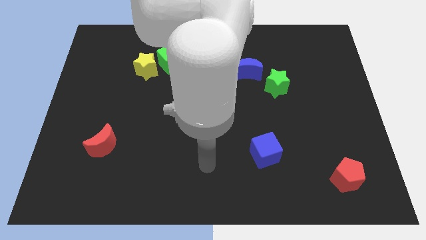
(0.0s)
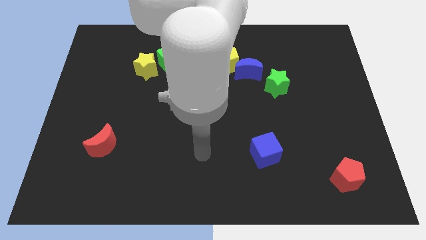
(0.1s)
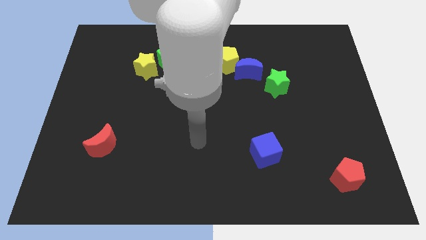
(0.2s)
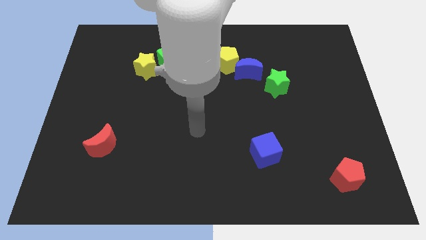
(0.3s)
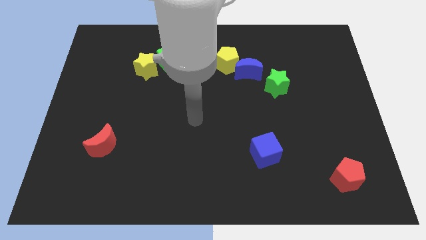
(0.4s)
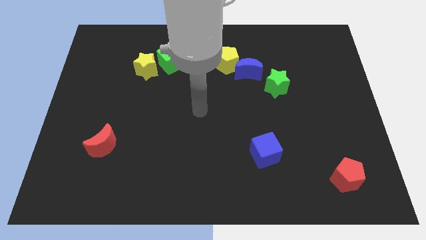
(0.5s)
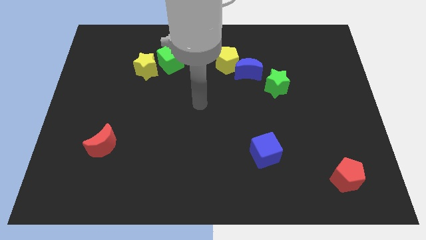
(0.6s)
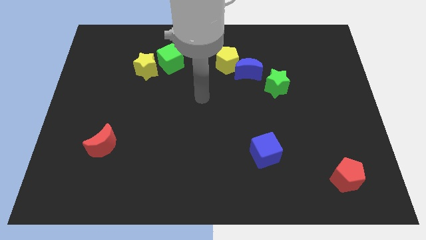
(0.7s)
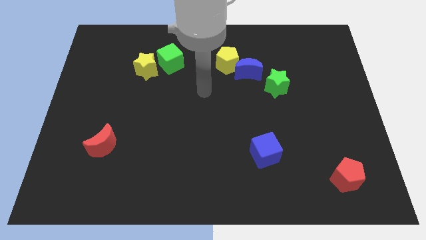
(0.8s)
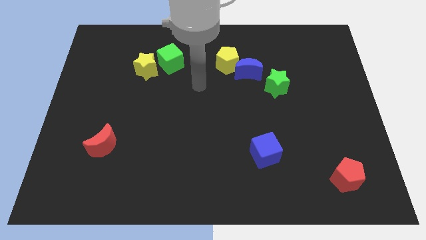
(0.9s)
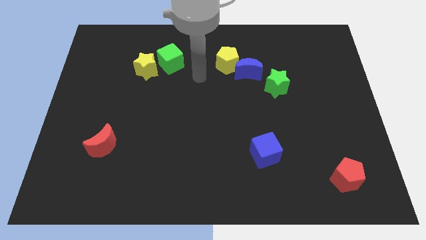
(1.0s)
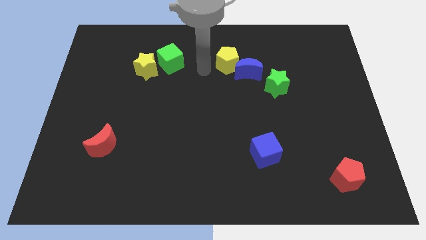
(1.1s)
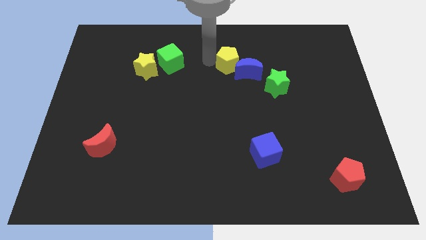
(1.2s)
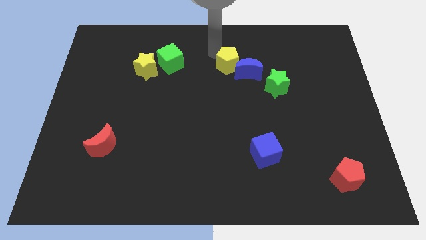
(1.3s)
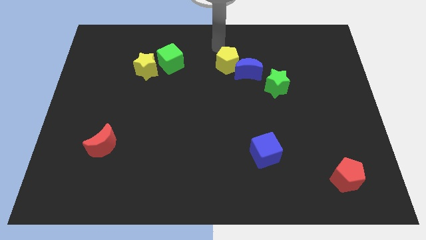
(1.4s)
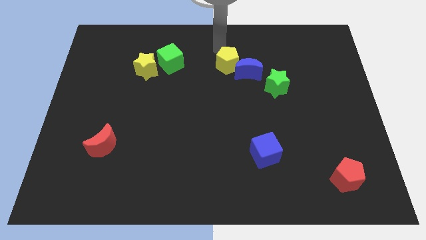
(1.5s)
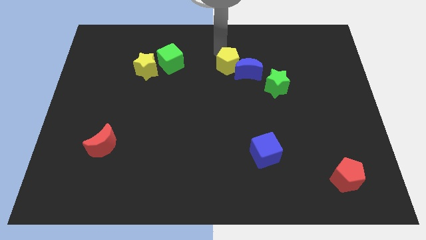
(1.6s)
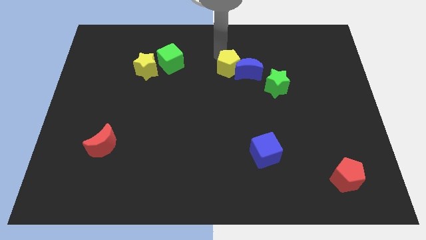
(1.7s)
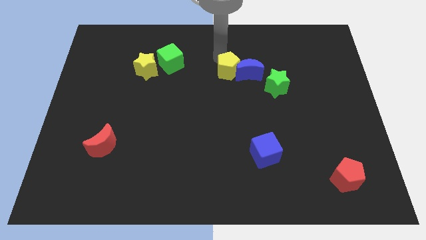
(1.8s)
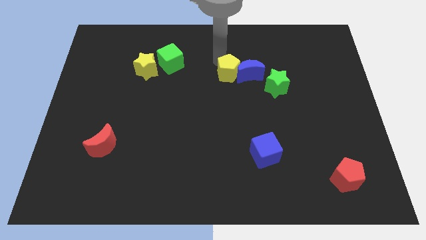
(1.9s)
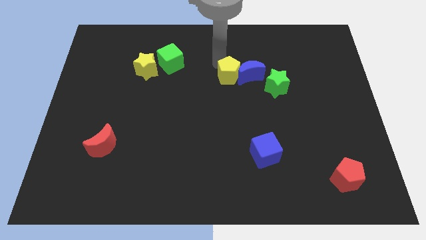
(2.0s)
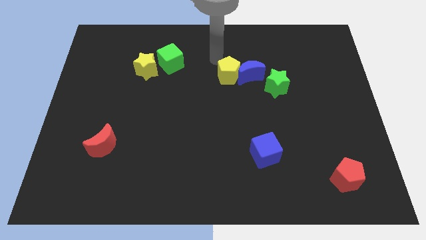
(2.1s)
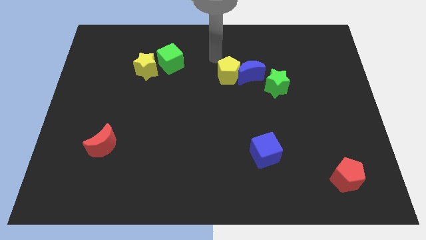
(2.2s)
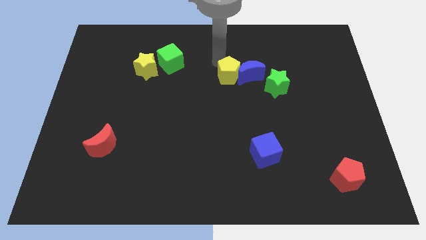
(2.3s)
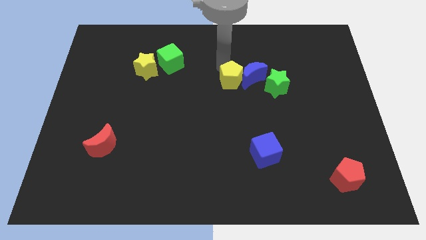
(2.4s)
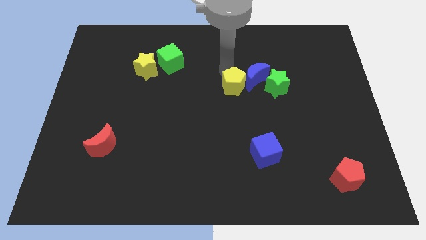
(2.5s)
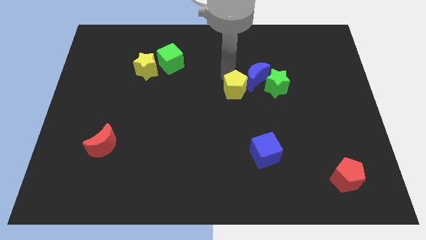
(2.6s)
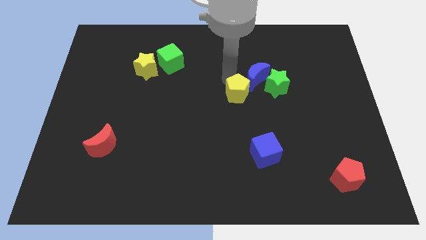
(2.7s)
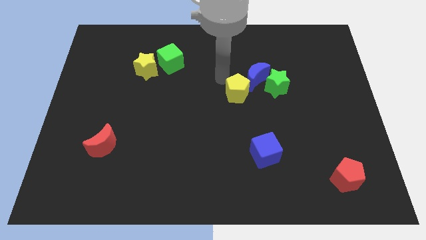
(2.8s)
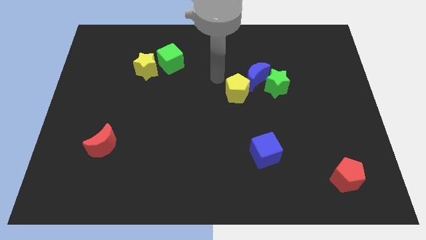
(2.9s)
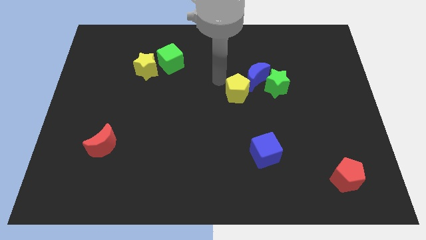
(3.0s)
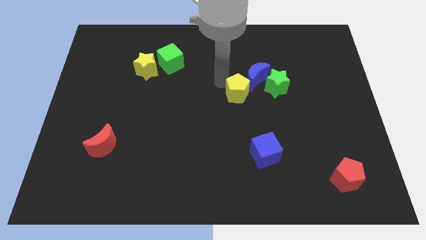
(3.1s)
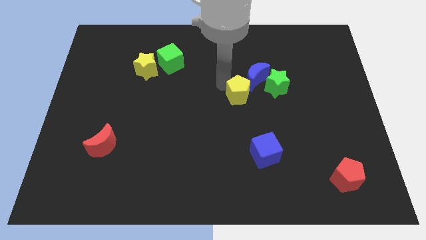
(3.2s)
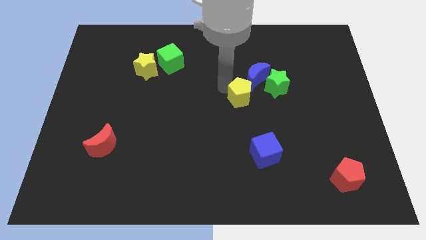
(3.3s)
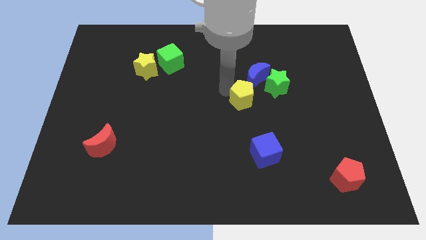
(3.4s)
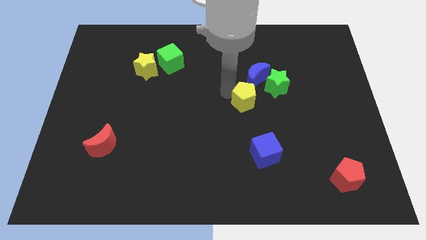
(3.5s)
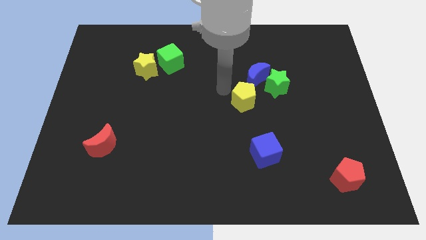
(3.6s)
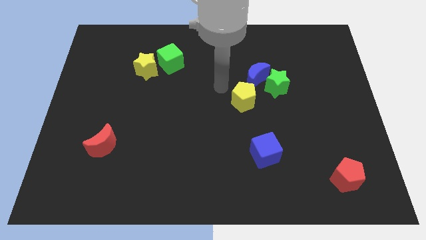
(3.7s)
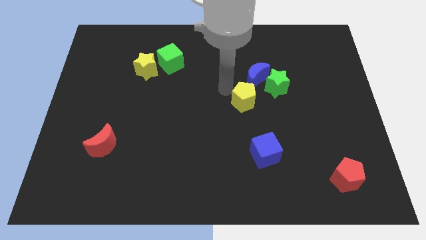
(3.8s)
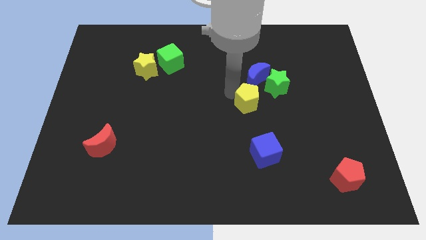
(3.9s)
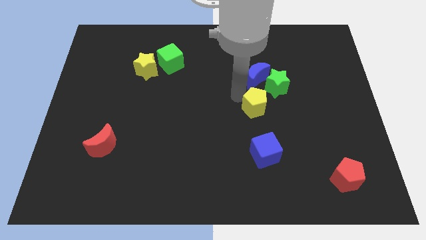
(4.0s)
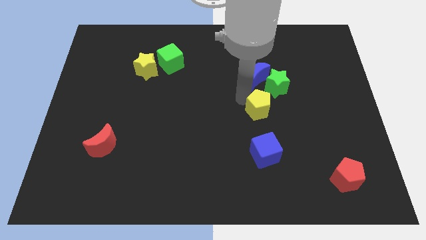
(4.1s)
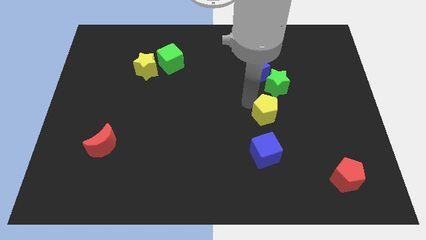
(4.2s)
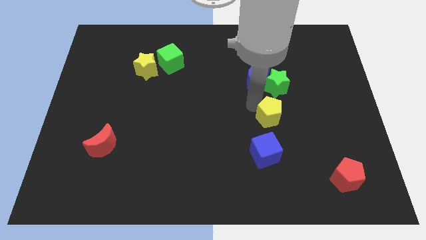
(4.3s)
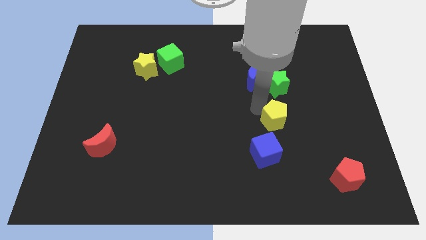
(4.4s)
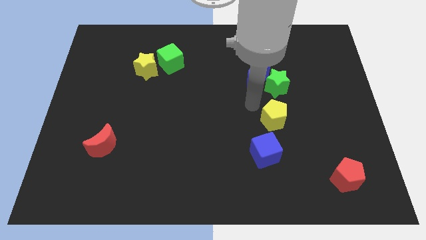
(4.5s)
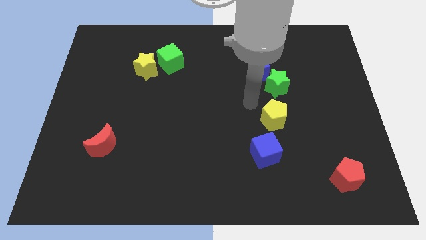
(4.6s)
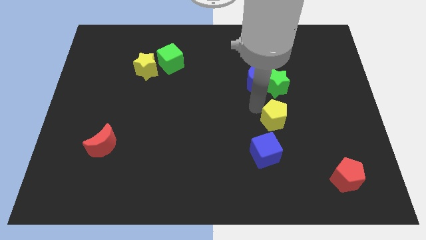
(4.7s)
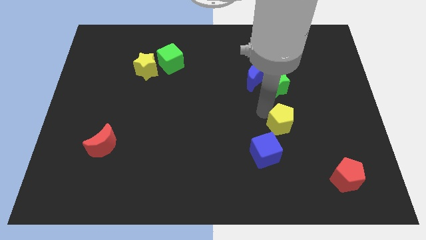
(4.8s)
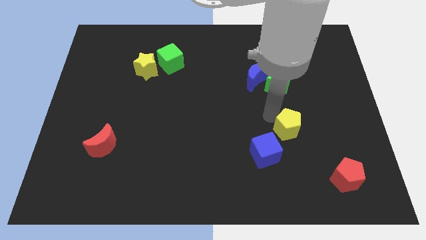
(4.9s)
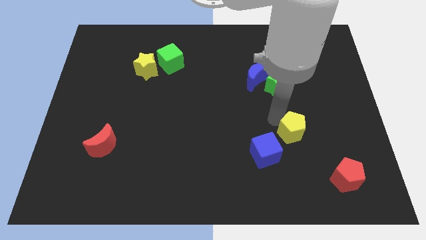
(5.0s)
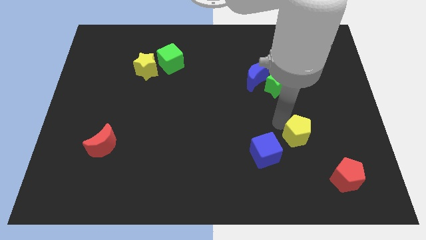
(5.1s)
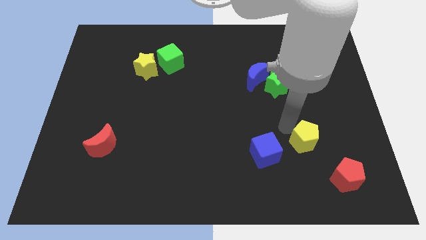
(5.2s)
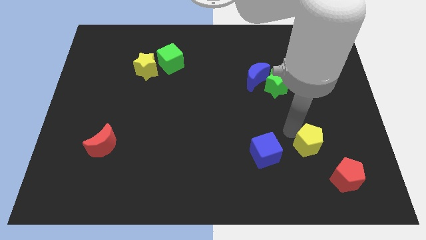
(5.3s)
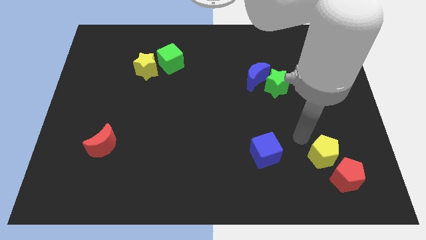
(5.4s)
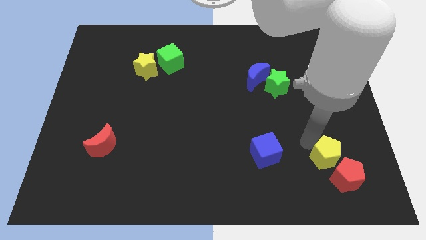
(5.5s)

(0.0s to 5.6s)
put the yellow pentagon close to the red pentagon

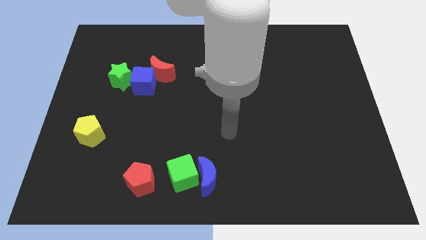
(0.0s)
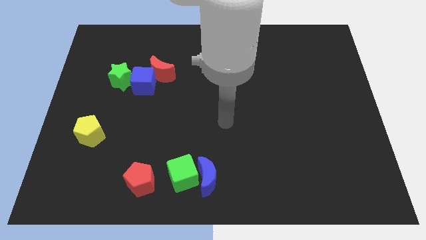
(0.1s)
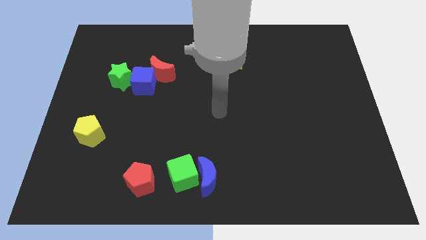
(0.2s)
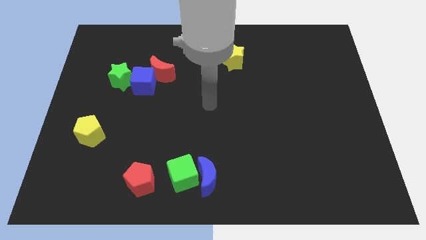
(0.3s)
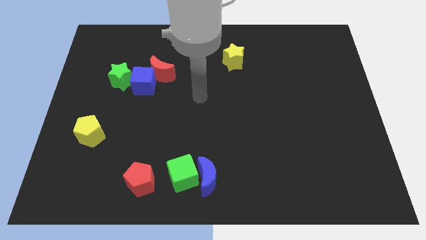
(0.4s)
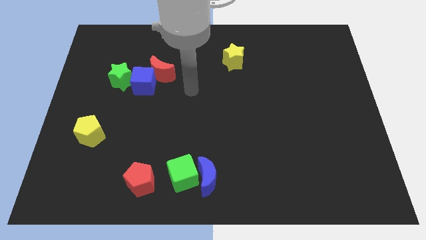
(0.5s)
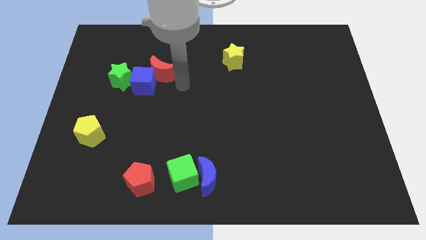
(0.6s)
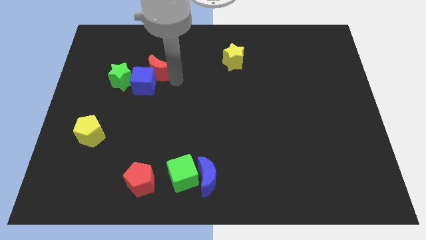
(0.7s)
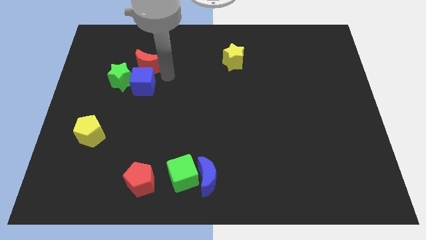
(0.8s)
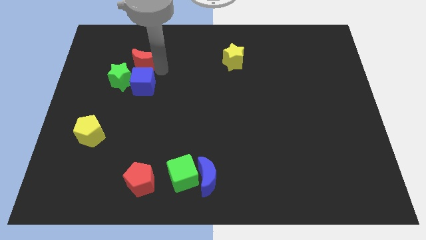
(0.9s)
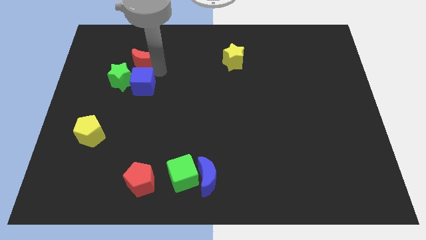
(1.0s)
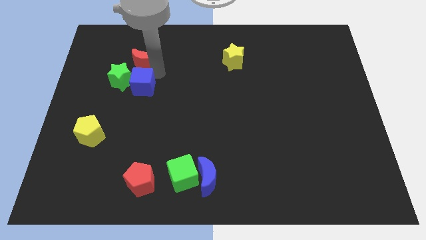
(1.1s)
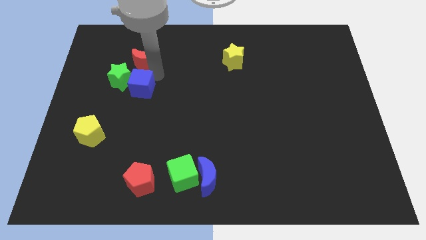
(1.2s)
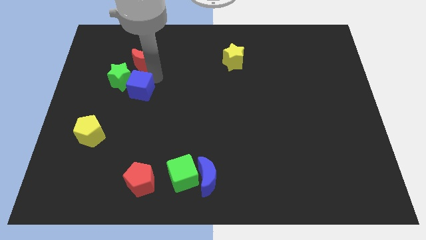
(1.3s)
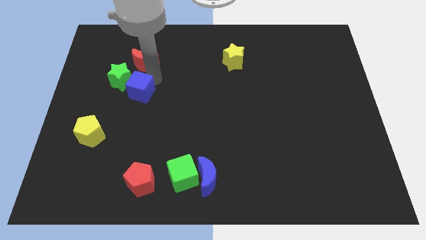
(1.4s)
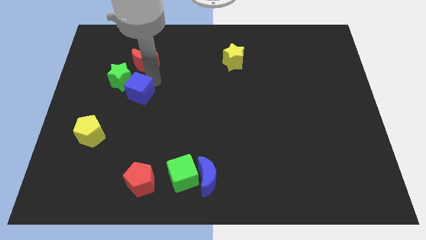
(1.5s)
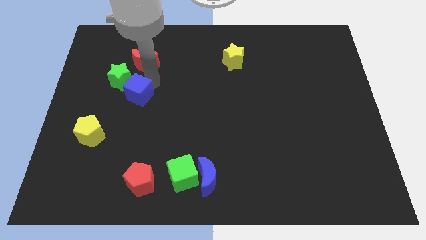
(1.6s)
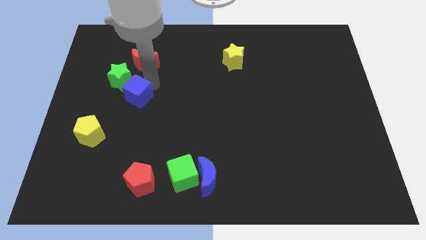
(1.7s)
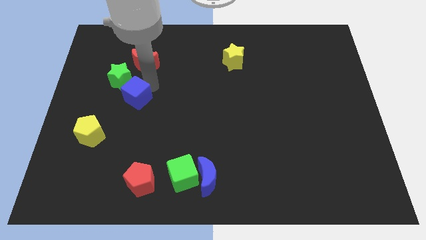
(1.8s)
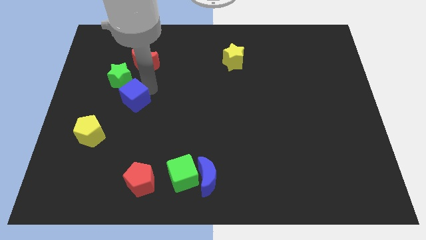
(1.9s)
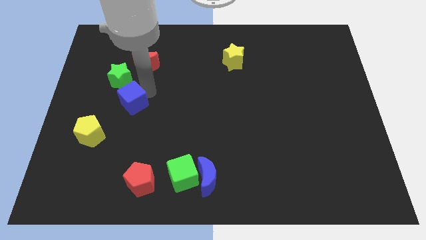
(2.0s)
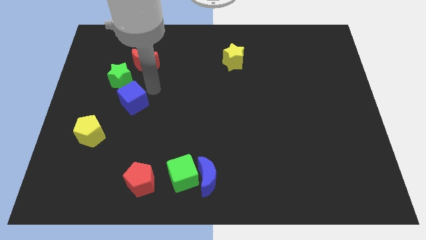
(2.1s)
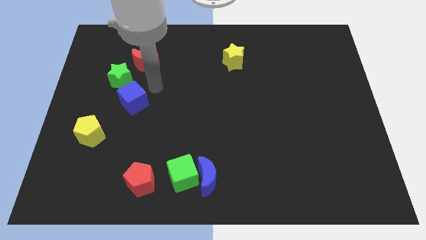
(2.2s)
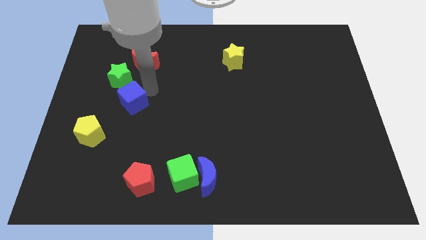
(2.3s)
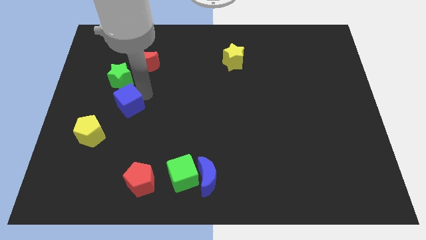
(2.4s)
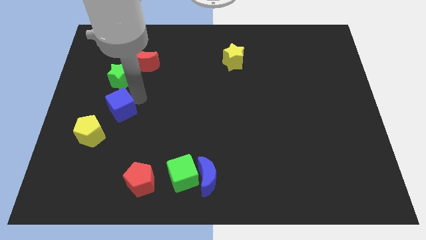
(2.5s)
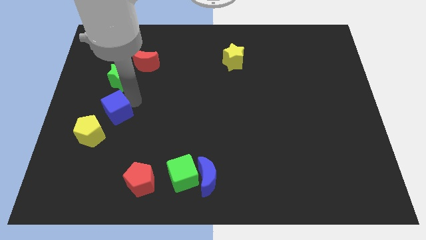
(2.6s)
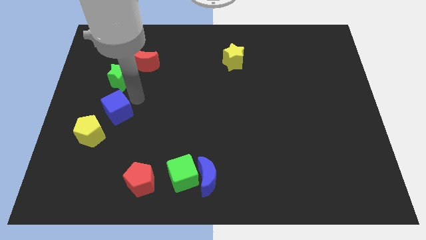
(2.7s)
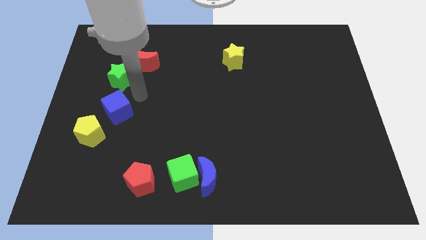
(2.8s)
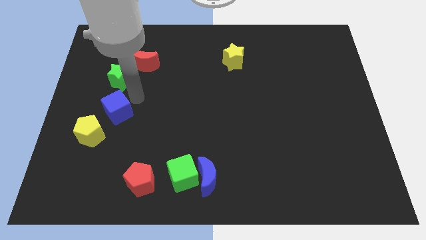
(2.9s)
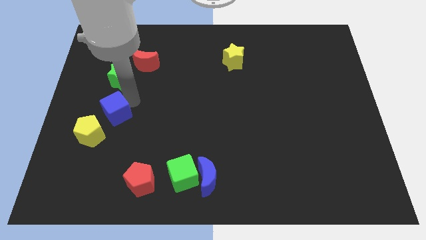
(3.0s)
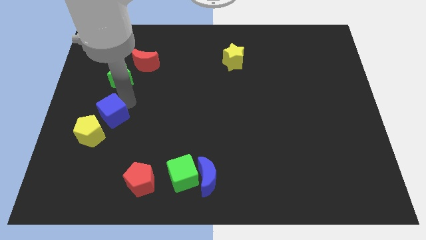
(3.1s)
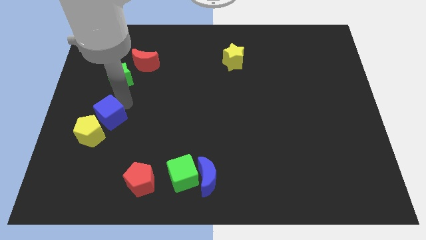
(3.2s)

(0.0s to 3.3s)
push the blue cube next to the yellow pentagon
